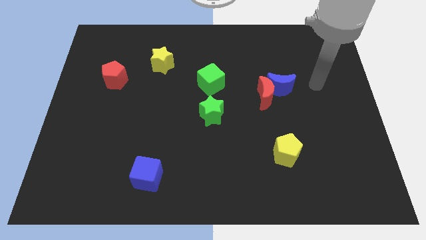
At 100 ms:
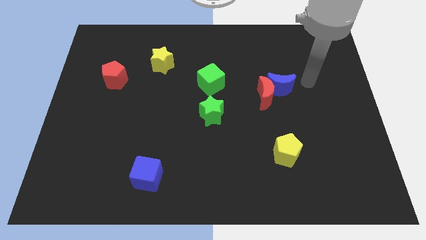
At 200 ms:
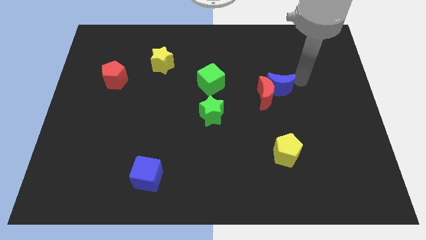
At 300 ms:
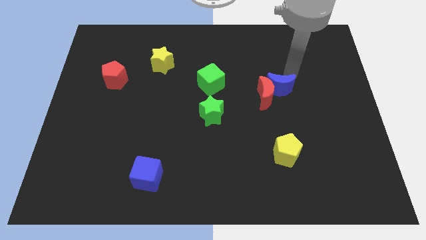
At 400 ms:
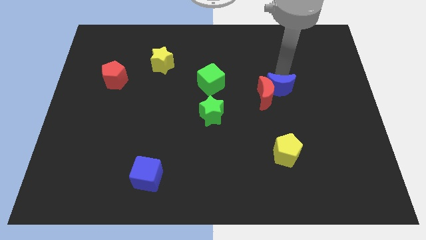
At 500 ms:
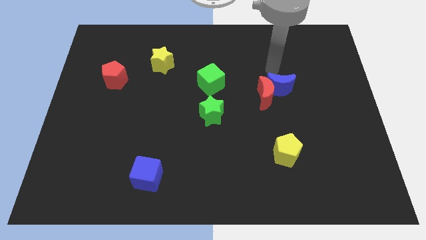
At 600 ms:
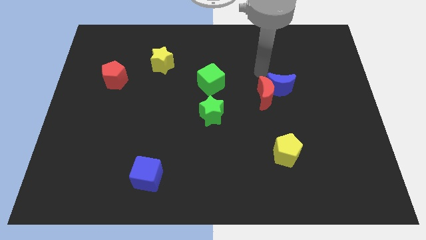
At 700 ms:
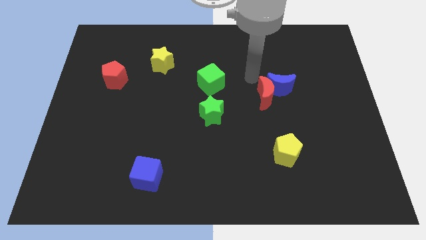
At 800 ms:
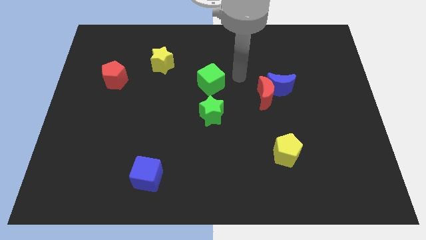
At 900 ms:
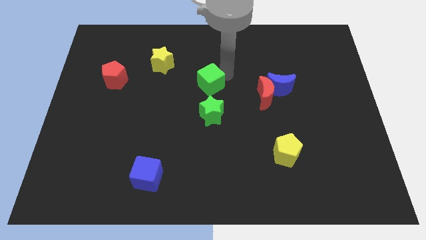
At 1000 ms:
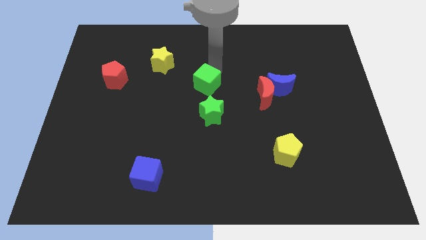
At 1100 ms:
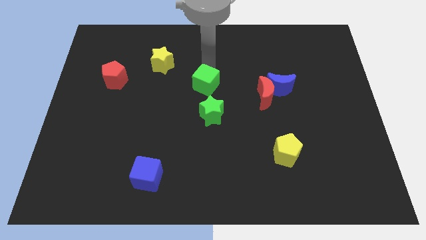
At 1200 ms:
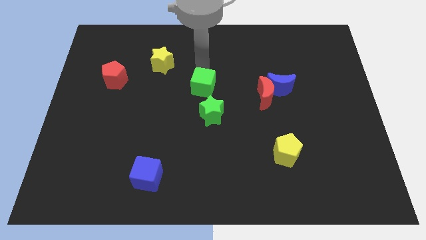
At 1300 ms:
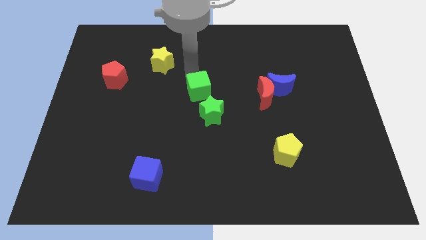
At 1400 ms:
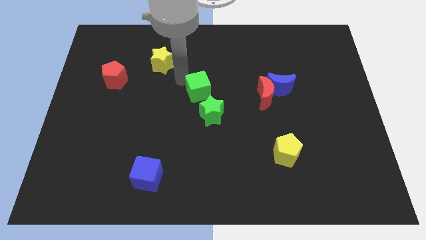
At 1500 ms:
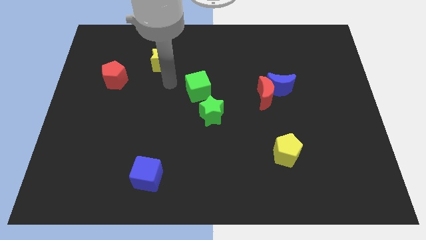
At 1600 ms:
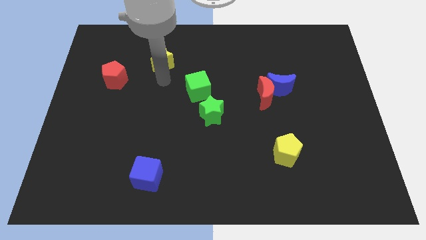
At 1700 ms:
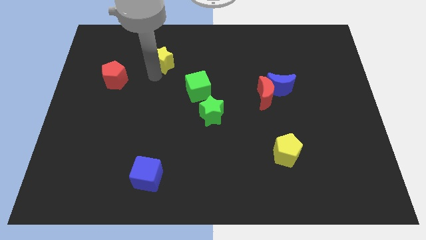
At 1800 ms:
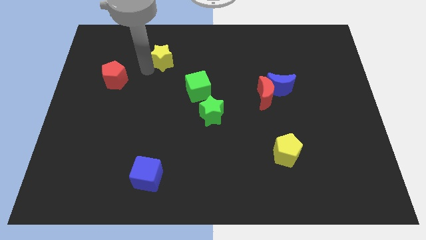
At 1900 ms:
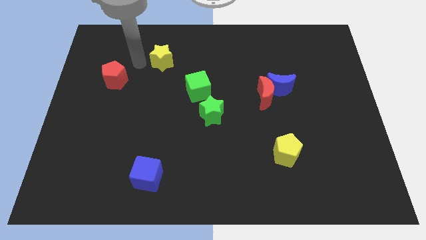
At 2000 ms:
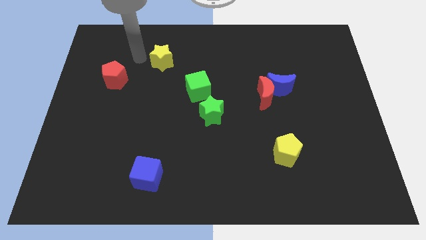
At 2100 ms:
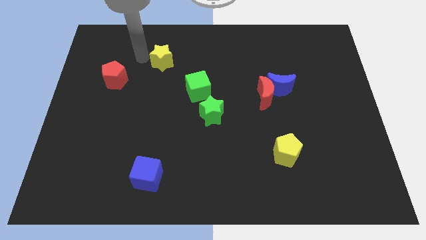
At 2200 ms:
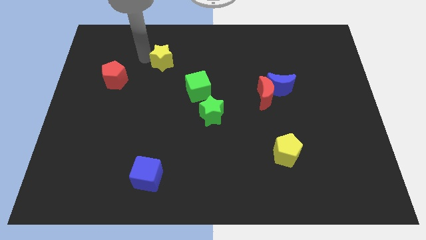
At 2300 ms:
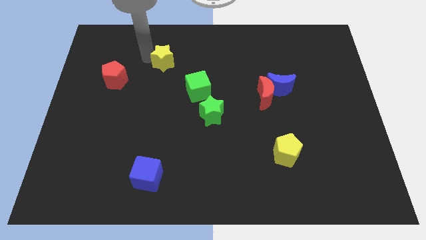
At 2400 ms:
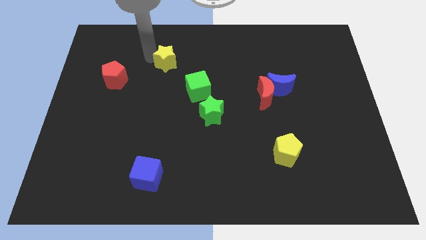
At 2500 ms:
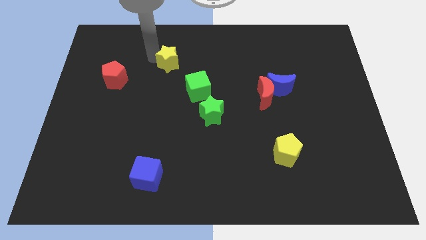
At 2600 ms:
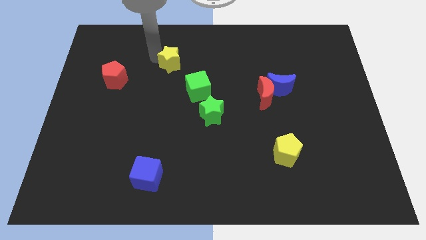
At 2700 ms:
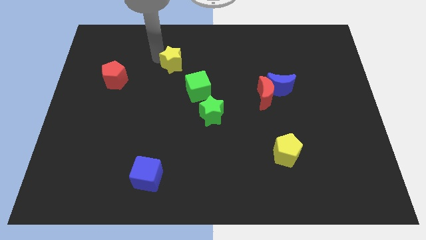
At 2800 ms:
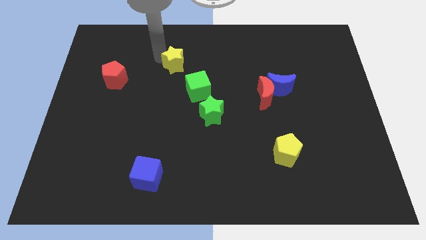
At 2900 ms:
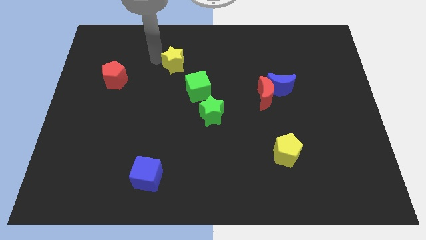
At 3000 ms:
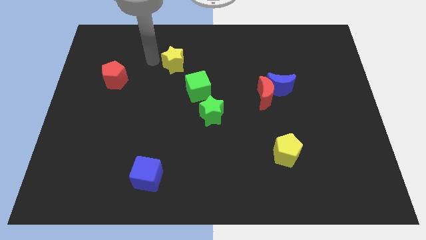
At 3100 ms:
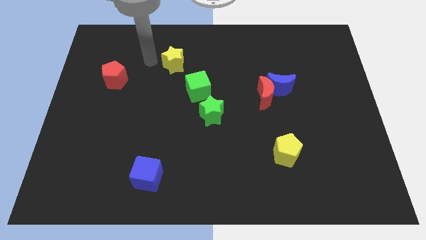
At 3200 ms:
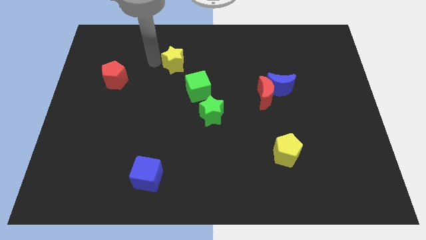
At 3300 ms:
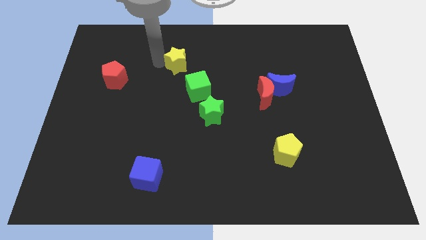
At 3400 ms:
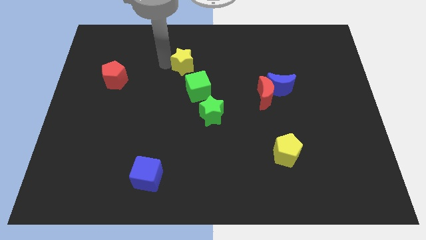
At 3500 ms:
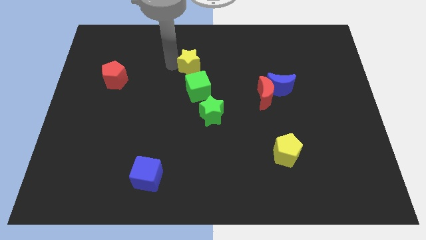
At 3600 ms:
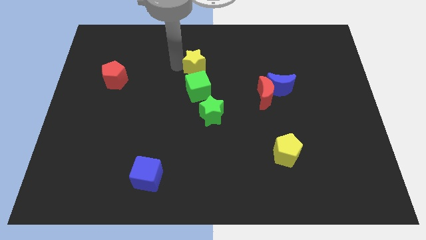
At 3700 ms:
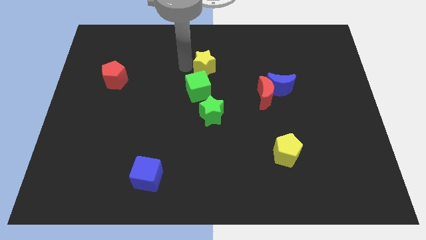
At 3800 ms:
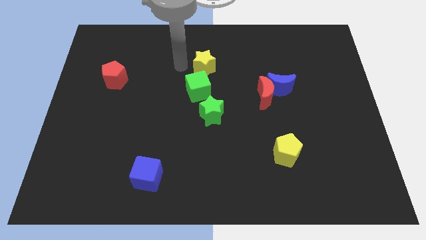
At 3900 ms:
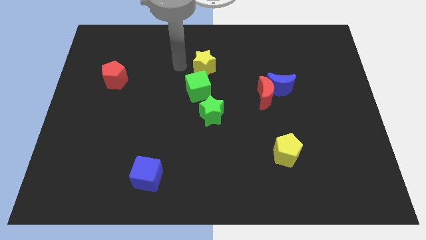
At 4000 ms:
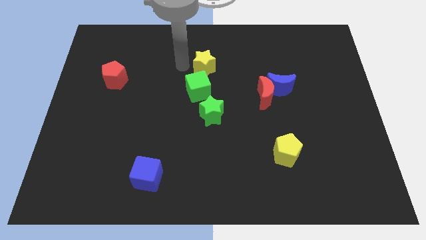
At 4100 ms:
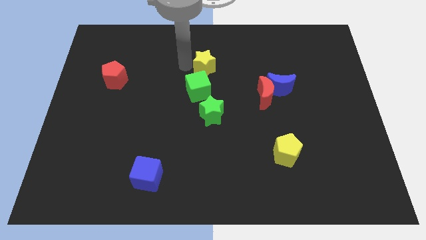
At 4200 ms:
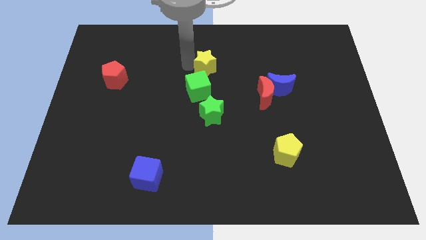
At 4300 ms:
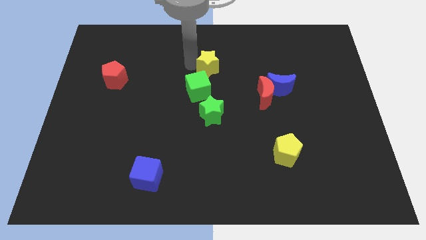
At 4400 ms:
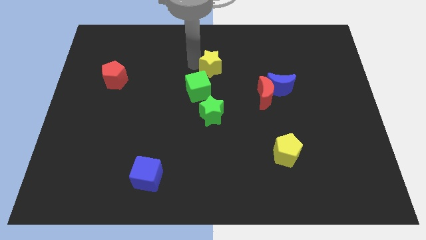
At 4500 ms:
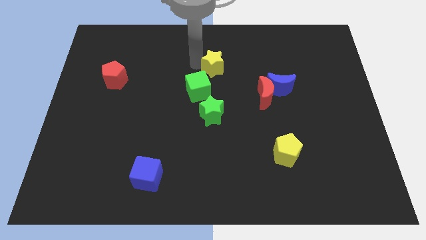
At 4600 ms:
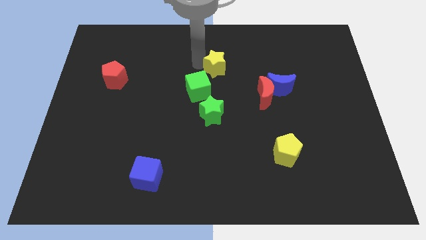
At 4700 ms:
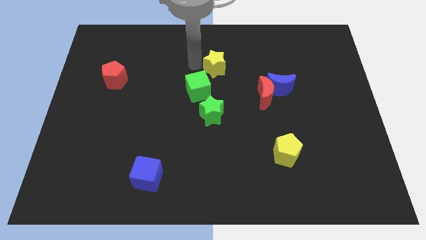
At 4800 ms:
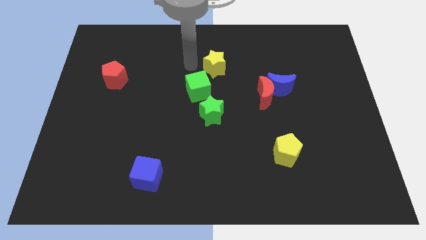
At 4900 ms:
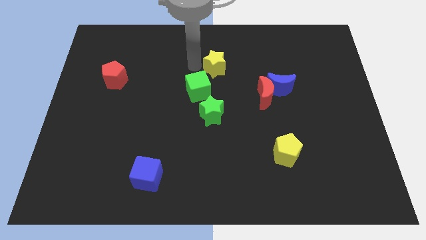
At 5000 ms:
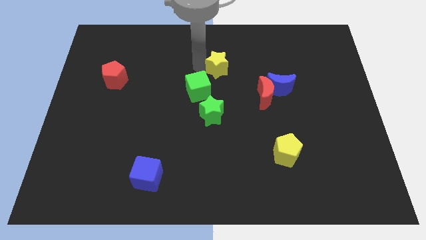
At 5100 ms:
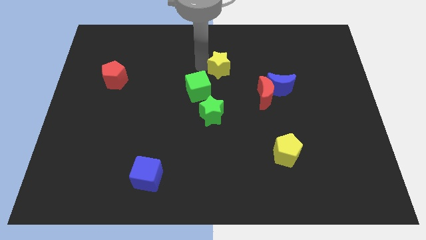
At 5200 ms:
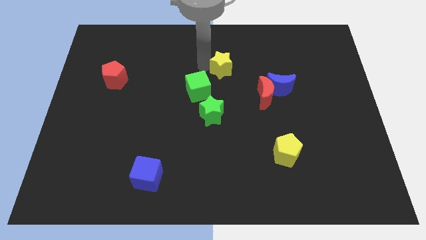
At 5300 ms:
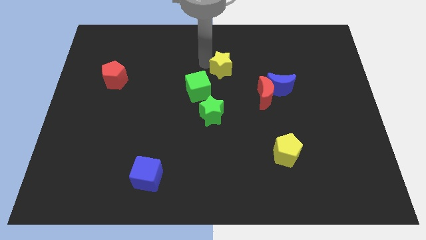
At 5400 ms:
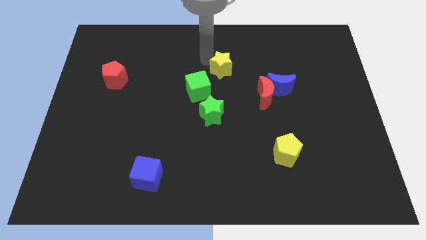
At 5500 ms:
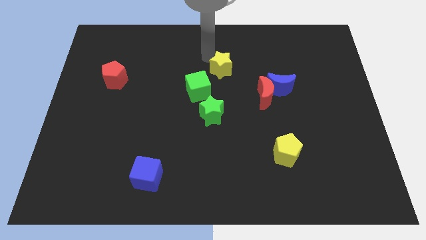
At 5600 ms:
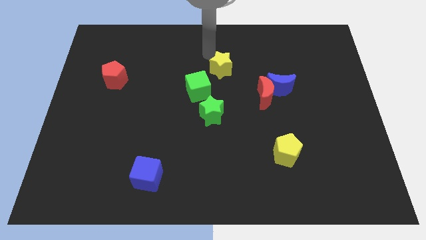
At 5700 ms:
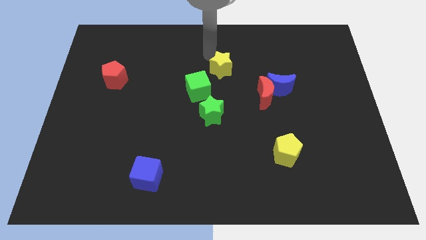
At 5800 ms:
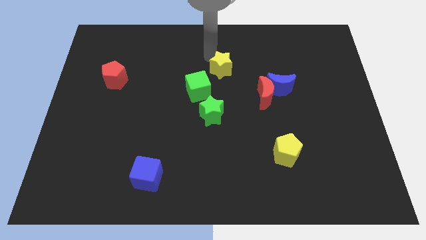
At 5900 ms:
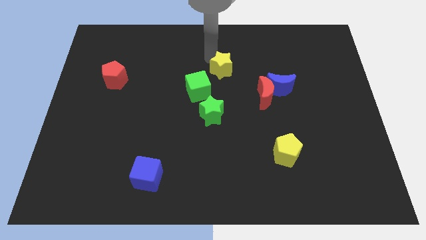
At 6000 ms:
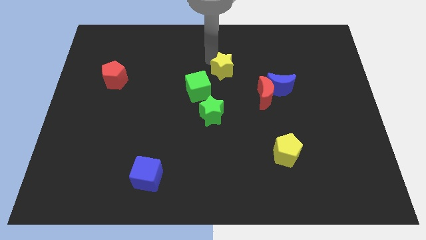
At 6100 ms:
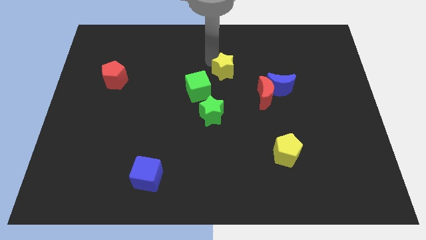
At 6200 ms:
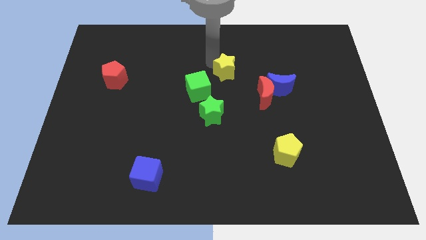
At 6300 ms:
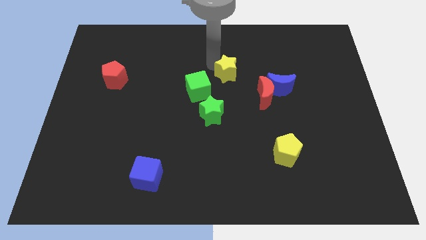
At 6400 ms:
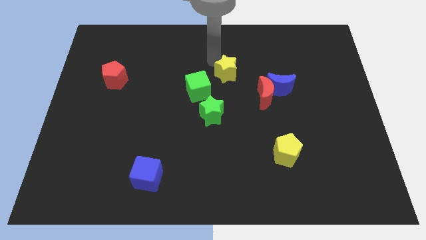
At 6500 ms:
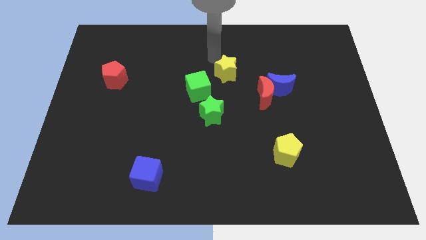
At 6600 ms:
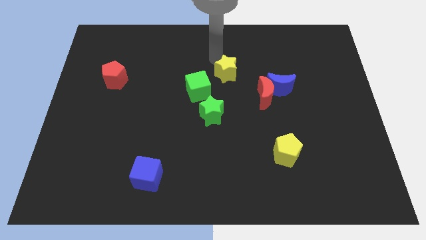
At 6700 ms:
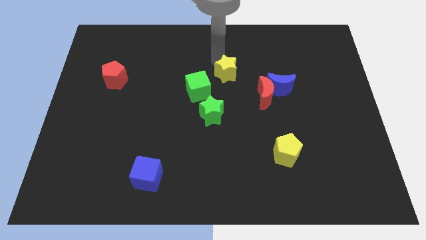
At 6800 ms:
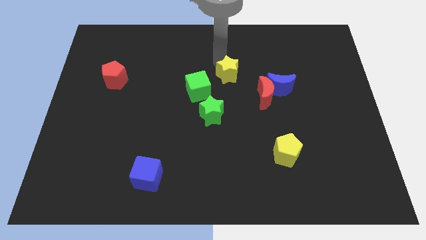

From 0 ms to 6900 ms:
move the yellow star to the left side of the blue moon
